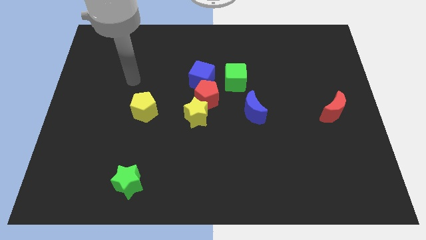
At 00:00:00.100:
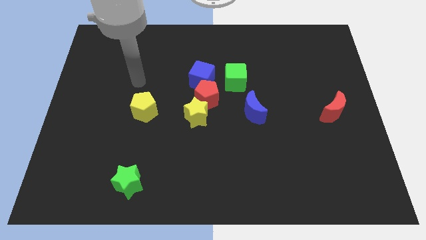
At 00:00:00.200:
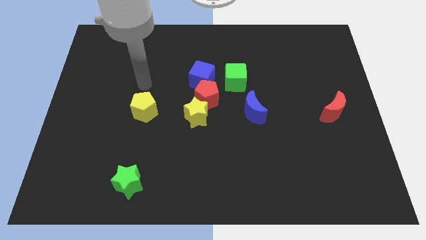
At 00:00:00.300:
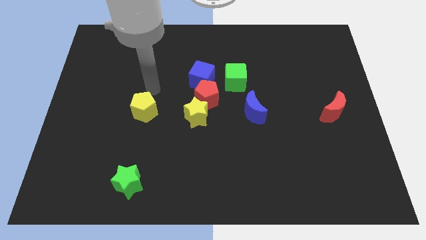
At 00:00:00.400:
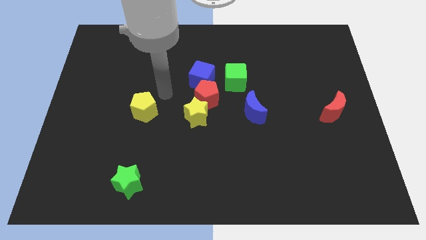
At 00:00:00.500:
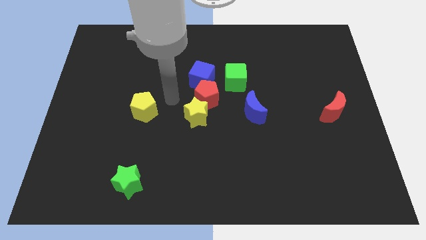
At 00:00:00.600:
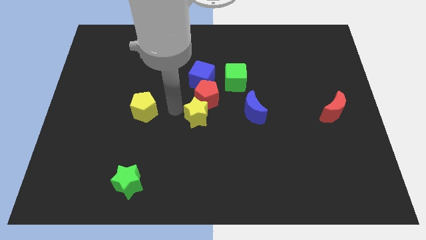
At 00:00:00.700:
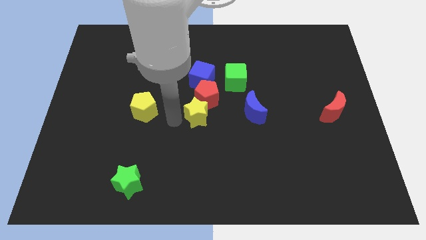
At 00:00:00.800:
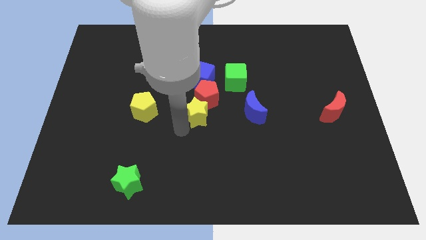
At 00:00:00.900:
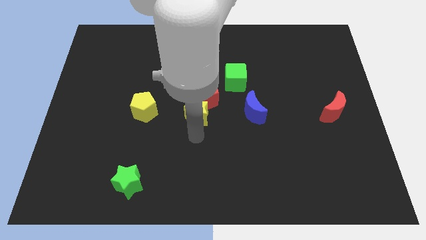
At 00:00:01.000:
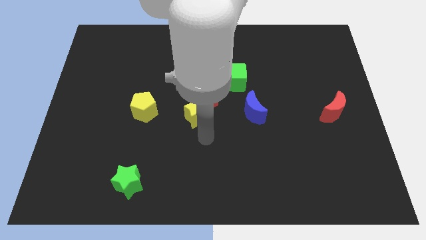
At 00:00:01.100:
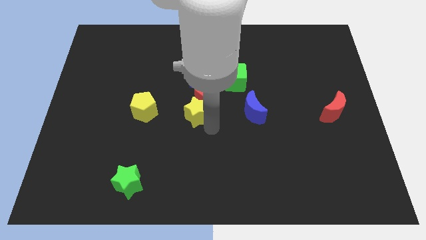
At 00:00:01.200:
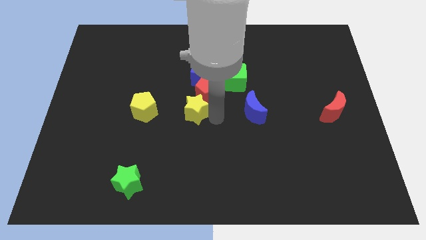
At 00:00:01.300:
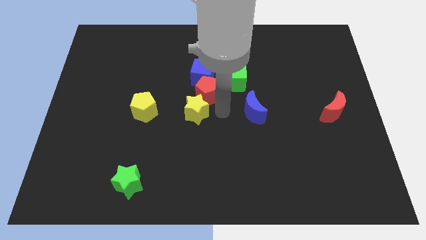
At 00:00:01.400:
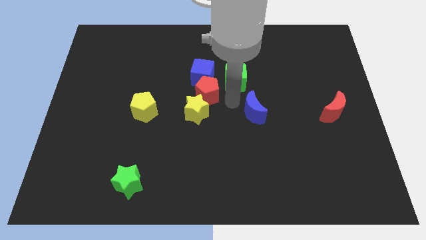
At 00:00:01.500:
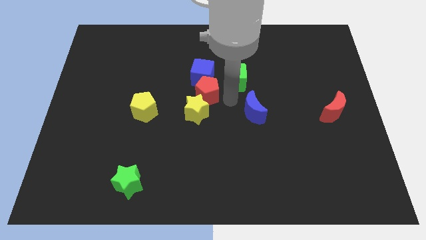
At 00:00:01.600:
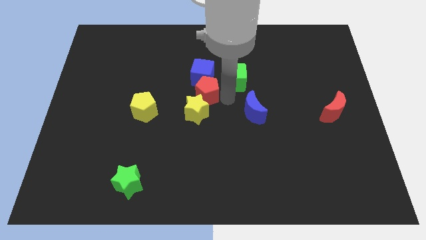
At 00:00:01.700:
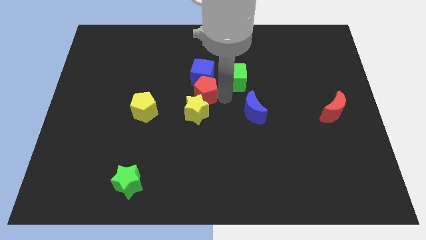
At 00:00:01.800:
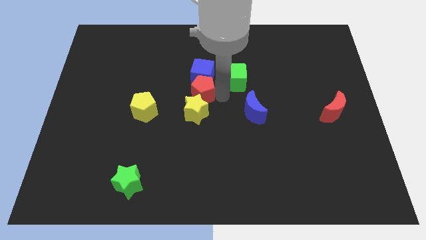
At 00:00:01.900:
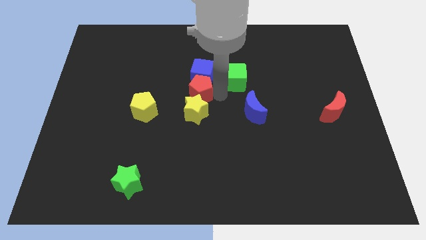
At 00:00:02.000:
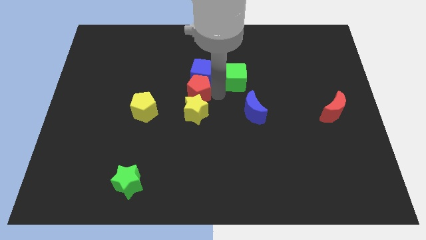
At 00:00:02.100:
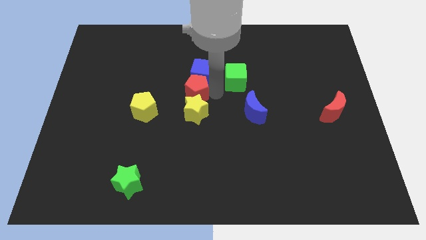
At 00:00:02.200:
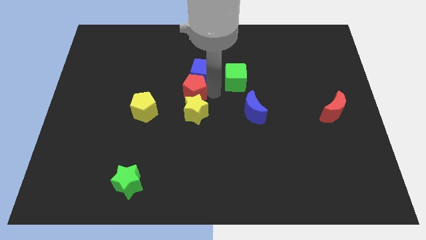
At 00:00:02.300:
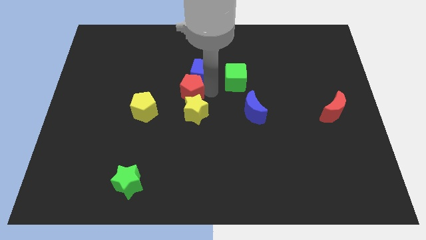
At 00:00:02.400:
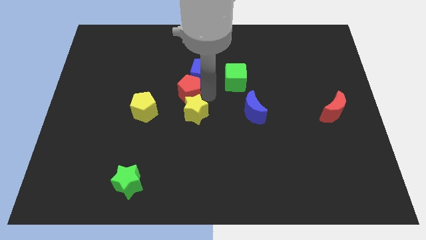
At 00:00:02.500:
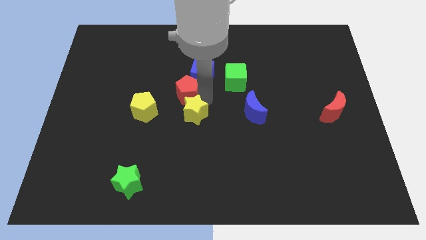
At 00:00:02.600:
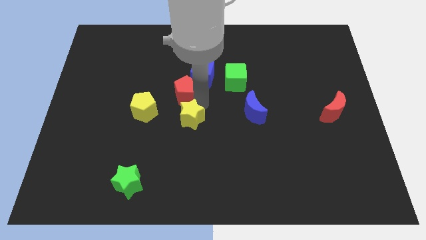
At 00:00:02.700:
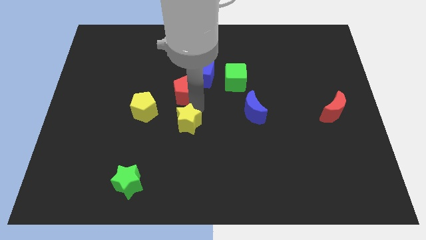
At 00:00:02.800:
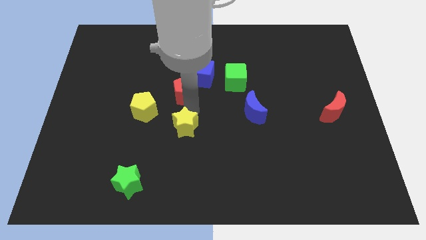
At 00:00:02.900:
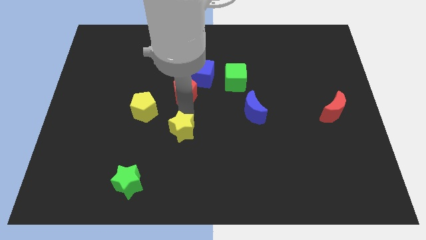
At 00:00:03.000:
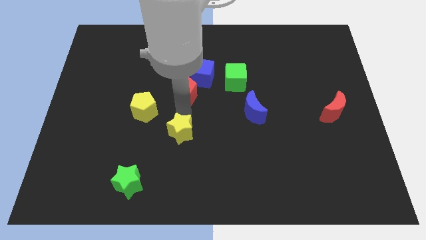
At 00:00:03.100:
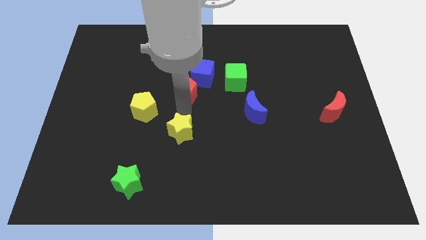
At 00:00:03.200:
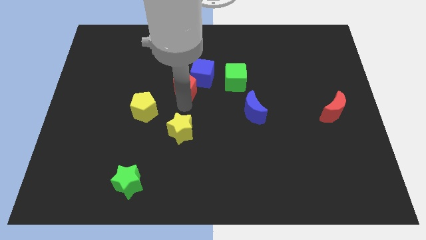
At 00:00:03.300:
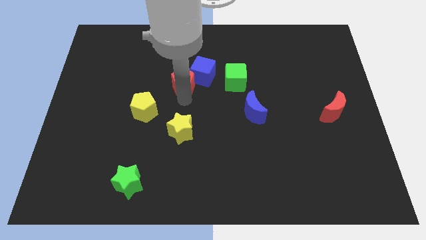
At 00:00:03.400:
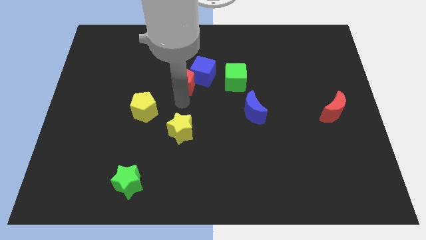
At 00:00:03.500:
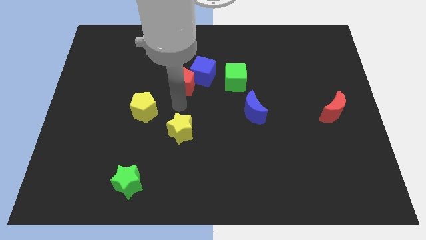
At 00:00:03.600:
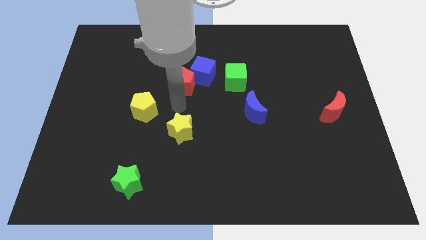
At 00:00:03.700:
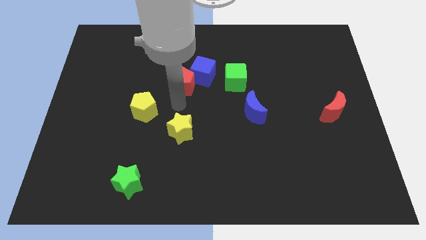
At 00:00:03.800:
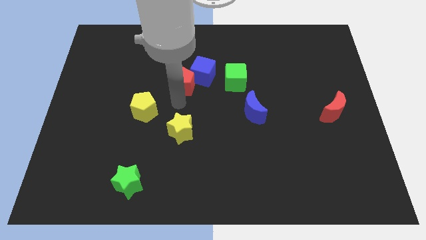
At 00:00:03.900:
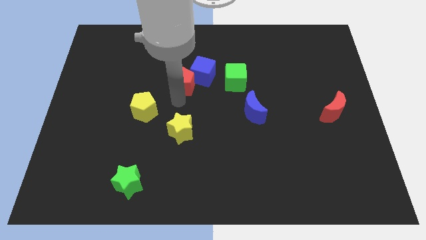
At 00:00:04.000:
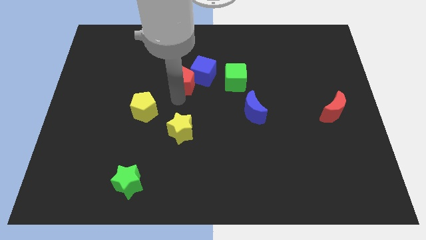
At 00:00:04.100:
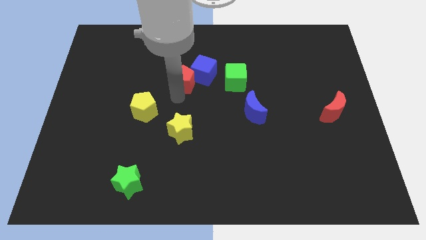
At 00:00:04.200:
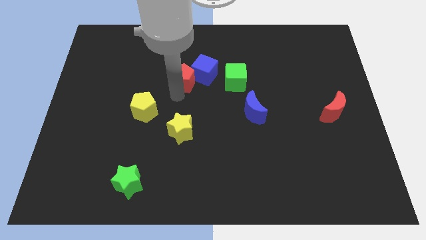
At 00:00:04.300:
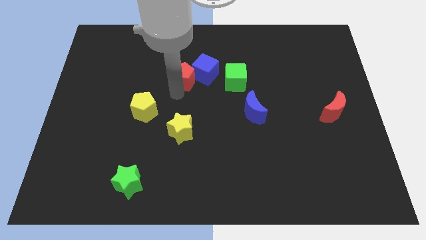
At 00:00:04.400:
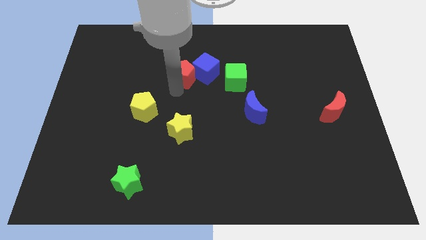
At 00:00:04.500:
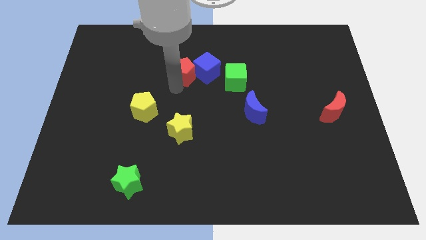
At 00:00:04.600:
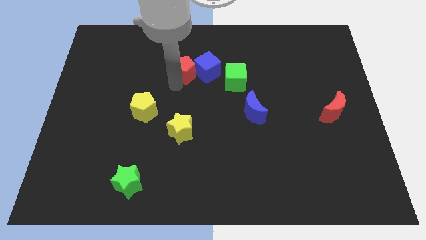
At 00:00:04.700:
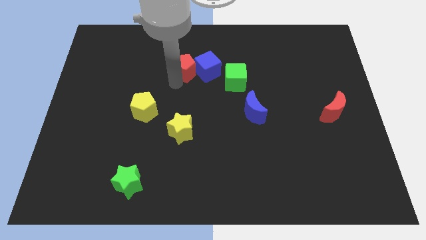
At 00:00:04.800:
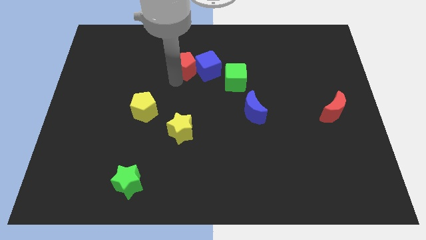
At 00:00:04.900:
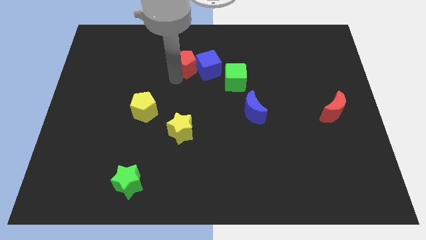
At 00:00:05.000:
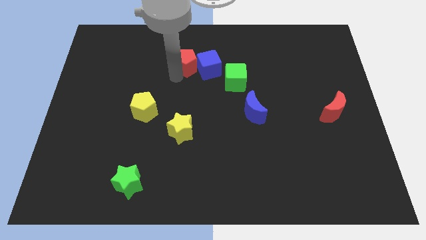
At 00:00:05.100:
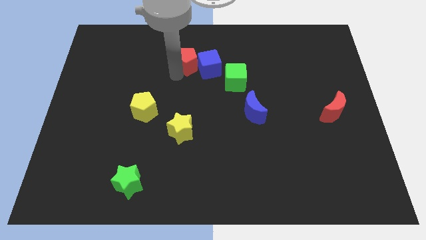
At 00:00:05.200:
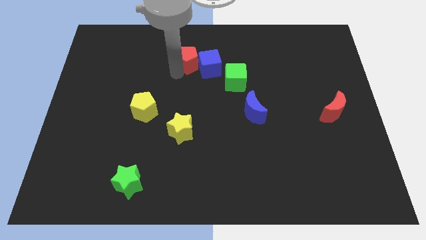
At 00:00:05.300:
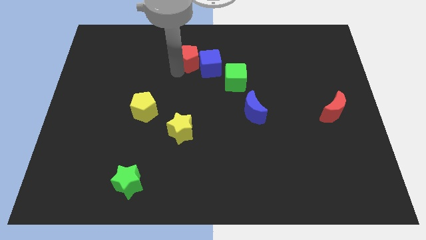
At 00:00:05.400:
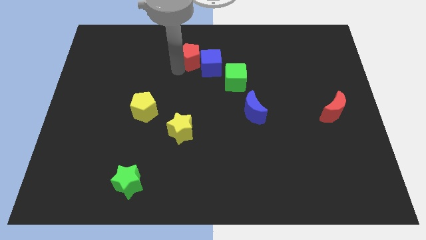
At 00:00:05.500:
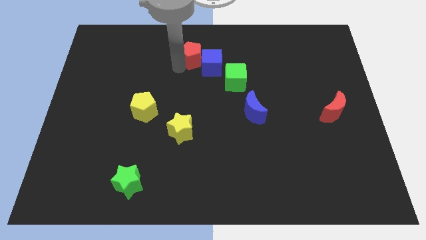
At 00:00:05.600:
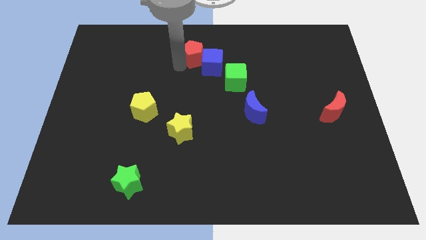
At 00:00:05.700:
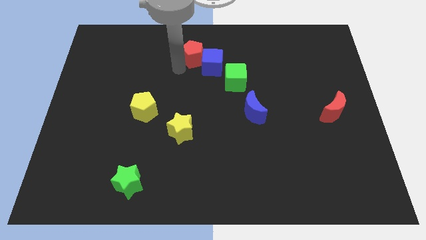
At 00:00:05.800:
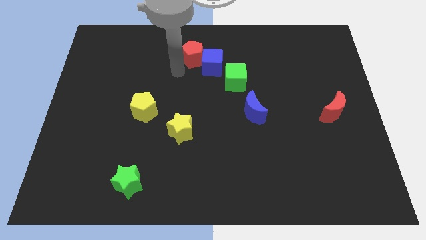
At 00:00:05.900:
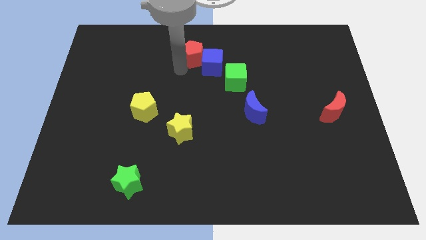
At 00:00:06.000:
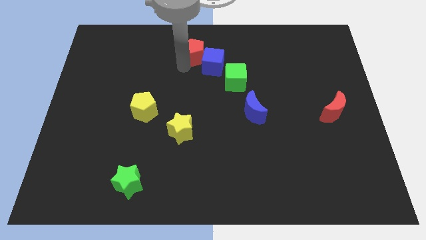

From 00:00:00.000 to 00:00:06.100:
put the red pentagon to the top side

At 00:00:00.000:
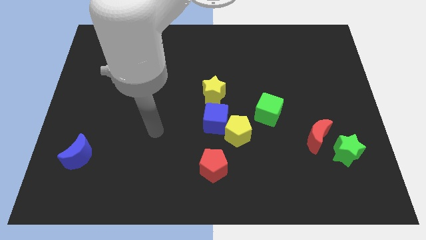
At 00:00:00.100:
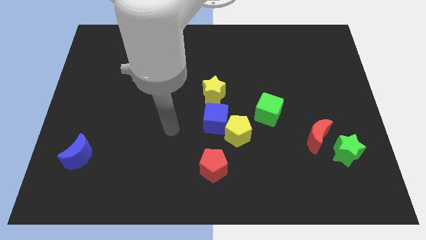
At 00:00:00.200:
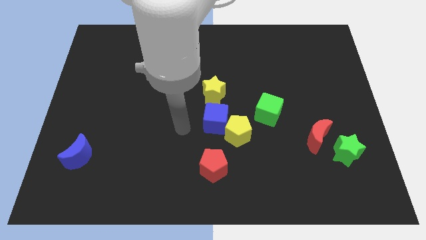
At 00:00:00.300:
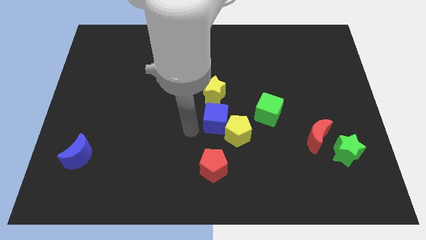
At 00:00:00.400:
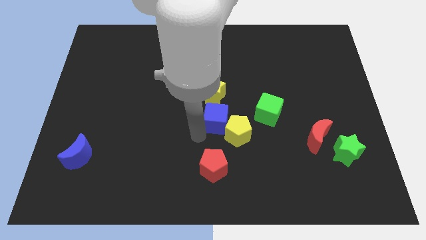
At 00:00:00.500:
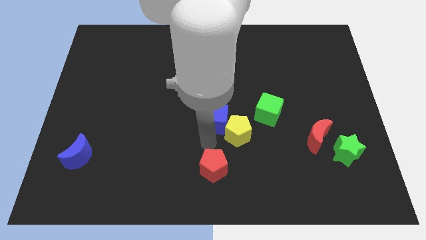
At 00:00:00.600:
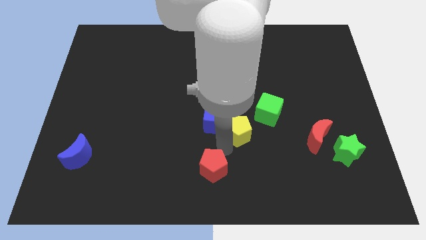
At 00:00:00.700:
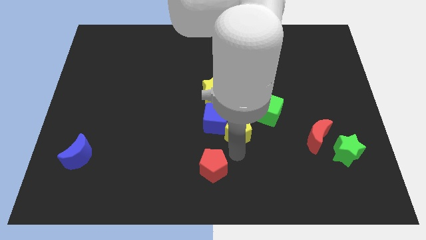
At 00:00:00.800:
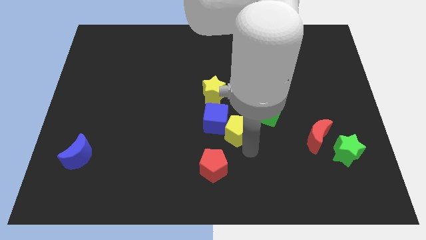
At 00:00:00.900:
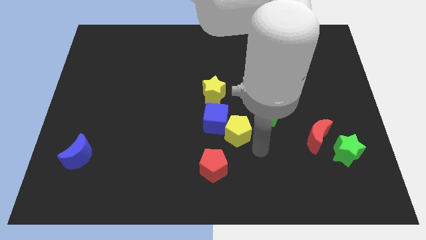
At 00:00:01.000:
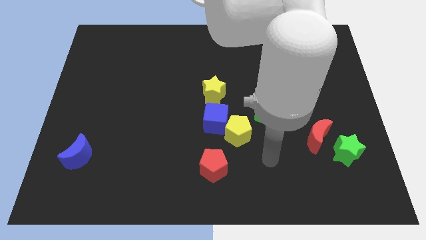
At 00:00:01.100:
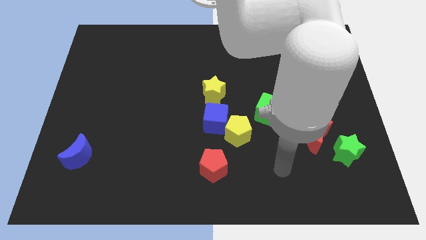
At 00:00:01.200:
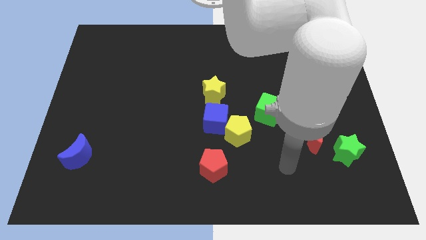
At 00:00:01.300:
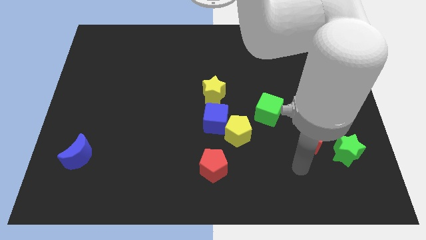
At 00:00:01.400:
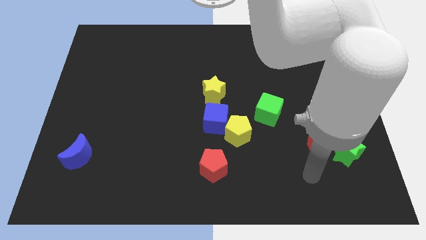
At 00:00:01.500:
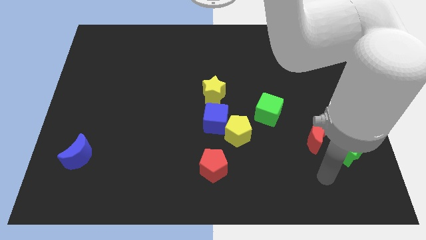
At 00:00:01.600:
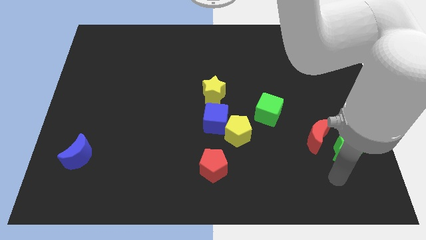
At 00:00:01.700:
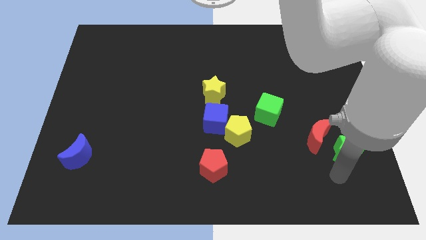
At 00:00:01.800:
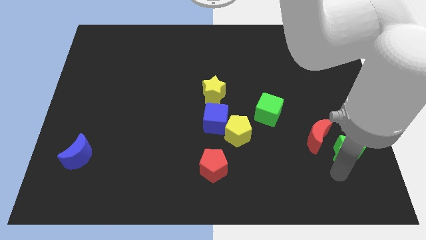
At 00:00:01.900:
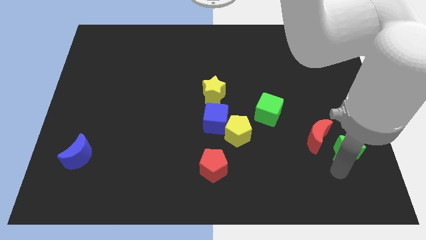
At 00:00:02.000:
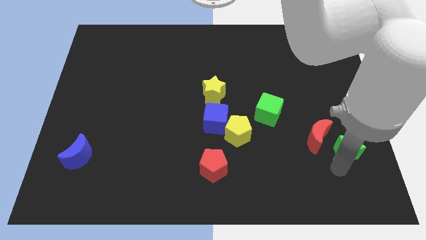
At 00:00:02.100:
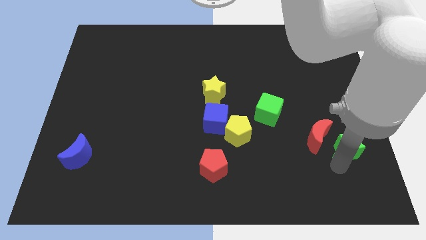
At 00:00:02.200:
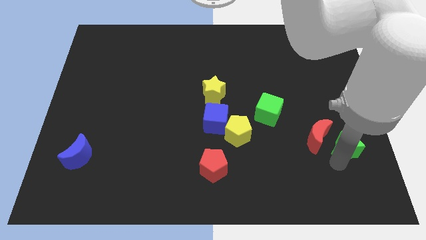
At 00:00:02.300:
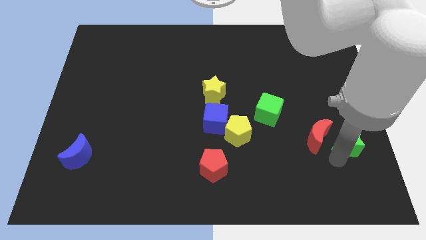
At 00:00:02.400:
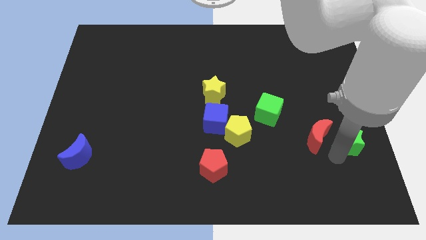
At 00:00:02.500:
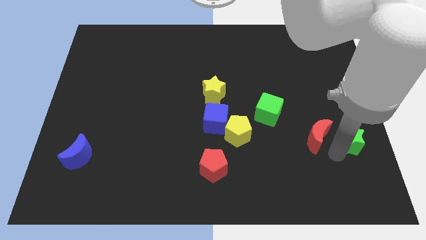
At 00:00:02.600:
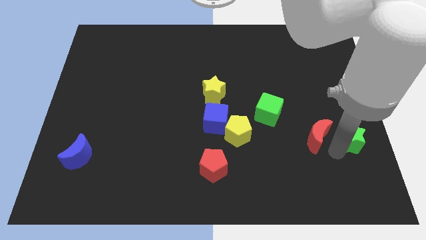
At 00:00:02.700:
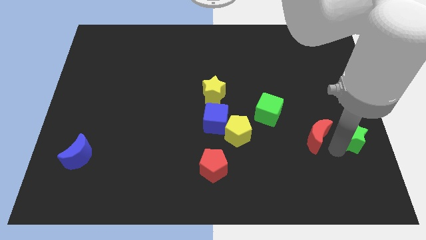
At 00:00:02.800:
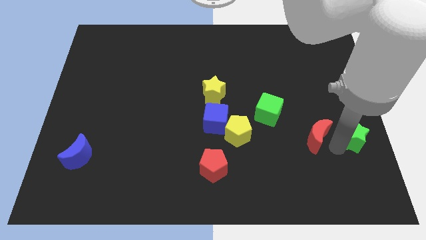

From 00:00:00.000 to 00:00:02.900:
push the green star to the right side of the board
